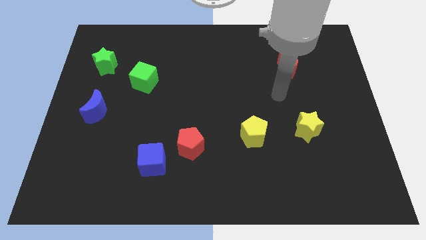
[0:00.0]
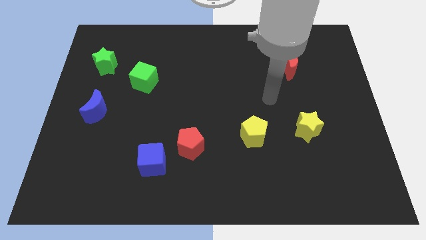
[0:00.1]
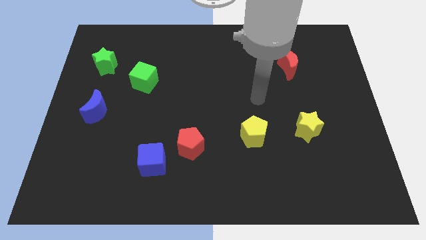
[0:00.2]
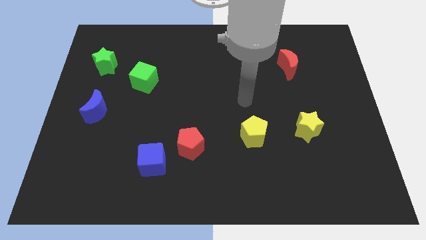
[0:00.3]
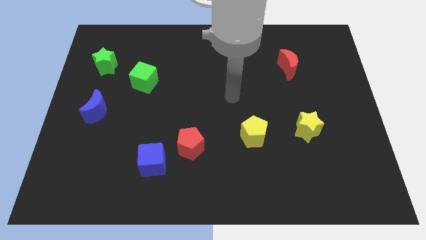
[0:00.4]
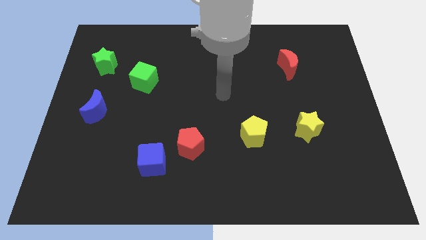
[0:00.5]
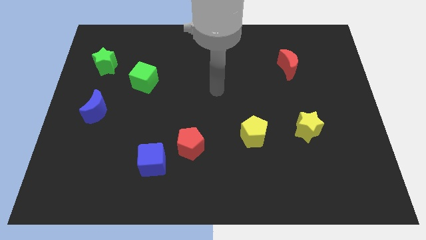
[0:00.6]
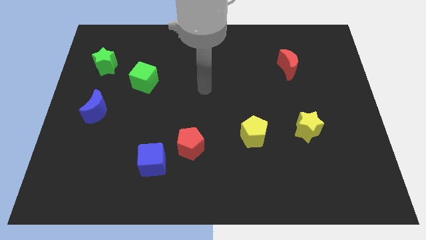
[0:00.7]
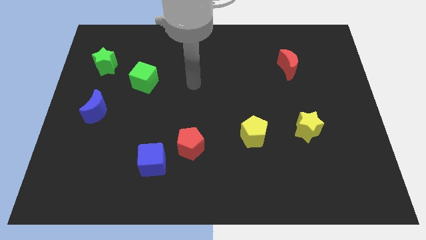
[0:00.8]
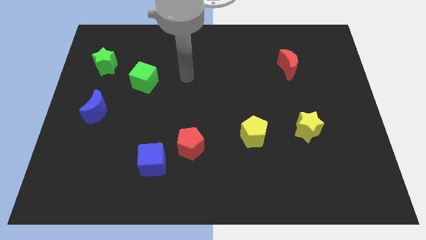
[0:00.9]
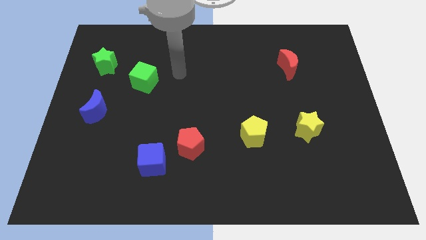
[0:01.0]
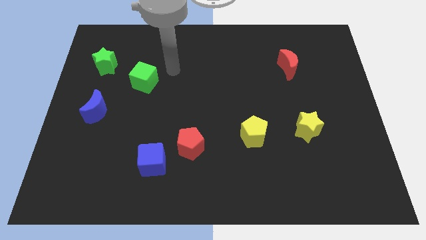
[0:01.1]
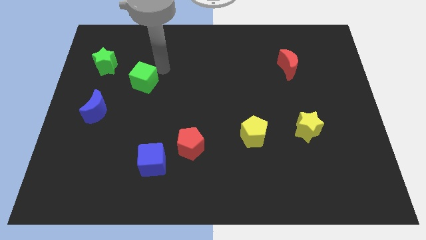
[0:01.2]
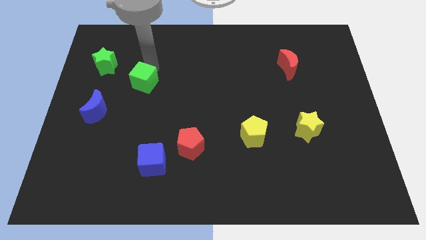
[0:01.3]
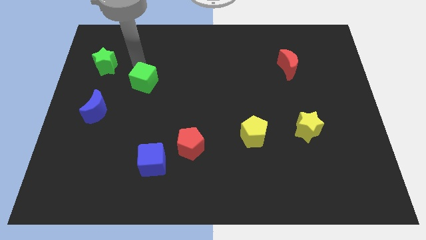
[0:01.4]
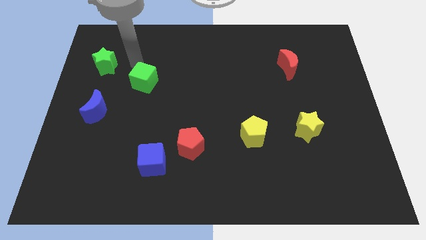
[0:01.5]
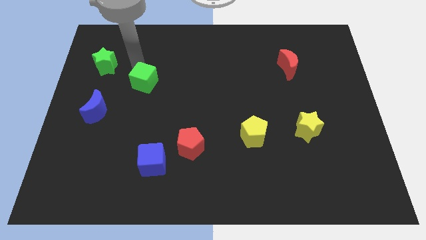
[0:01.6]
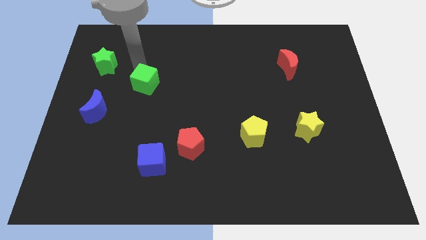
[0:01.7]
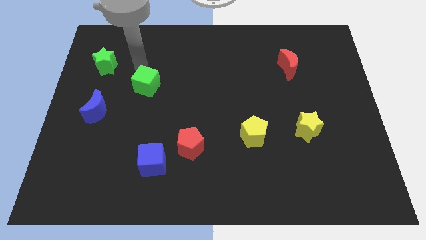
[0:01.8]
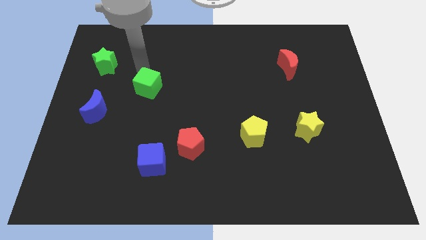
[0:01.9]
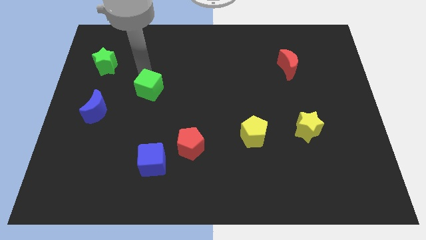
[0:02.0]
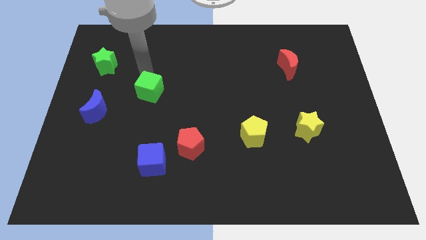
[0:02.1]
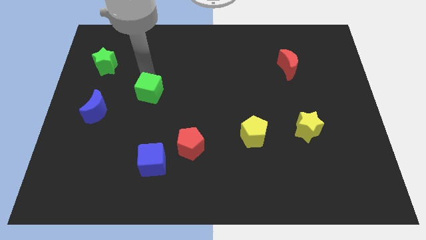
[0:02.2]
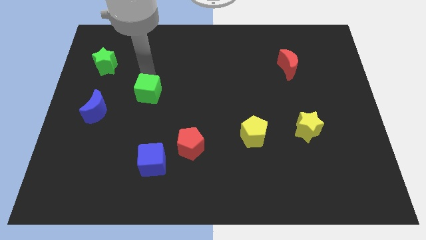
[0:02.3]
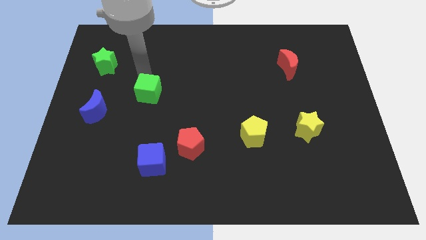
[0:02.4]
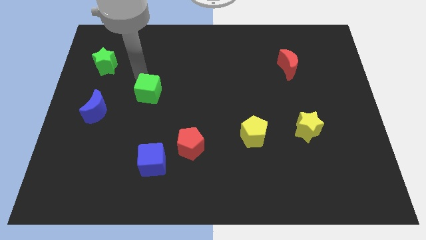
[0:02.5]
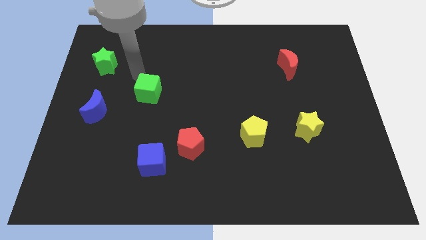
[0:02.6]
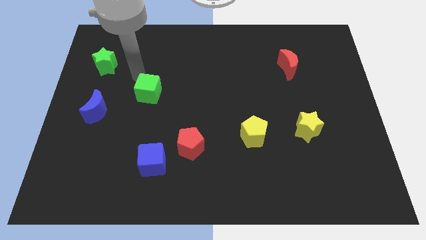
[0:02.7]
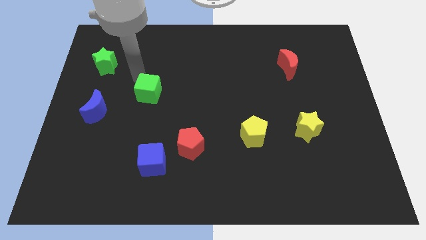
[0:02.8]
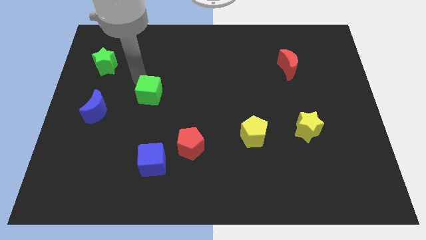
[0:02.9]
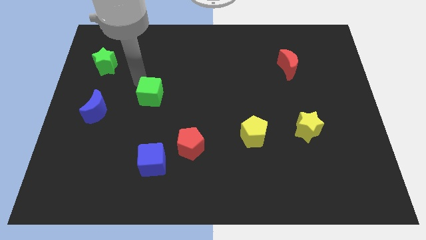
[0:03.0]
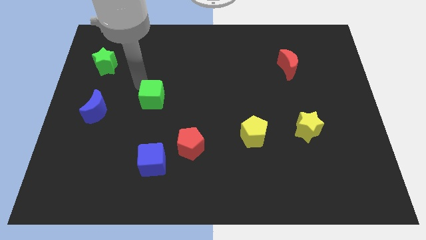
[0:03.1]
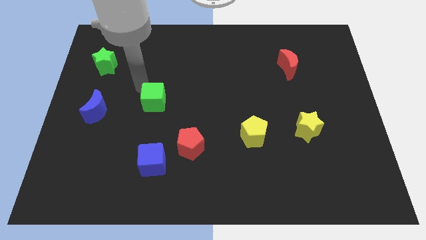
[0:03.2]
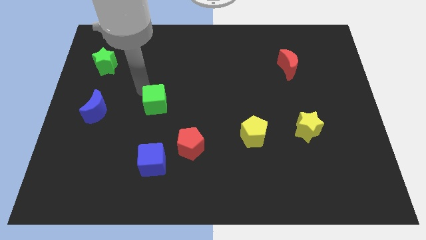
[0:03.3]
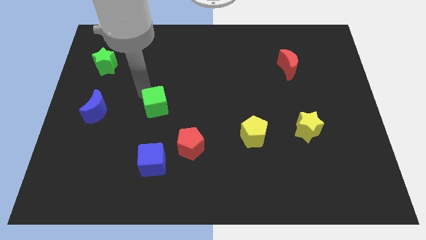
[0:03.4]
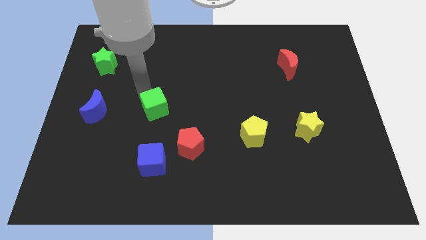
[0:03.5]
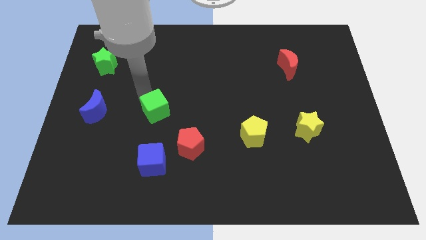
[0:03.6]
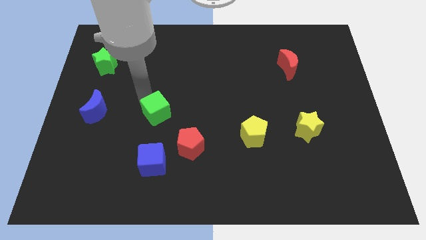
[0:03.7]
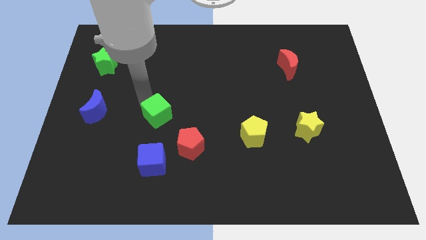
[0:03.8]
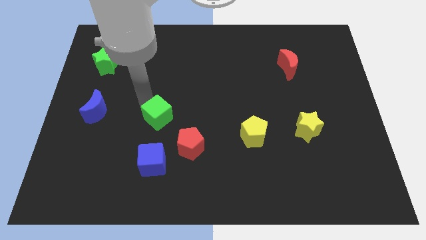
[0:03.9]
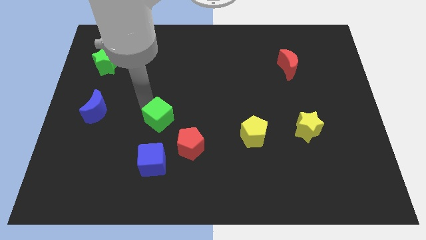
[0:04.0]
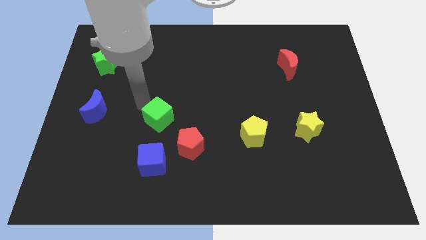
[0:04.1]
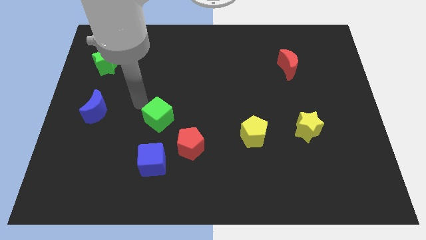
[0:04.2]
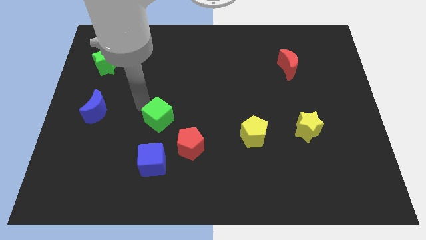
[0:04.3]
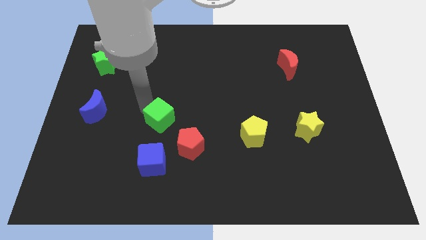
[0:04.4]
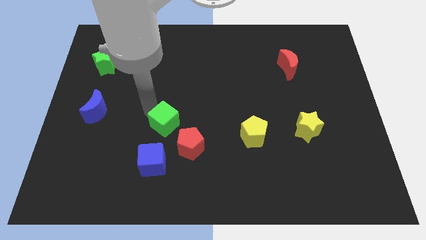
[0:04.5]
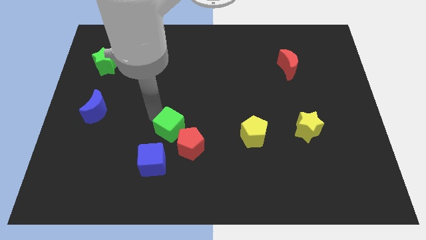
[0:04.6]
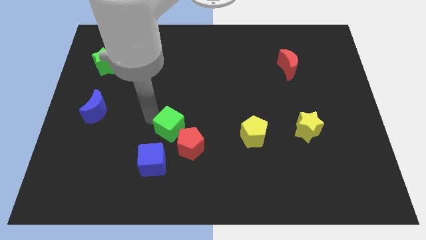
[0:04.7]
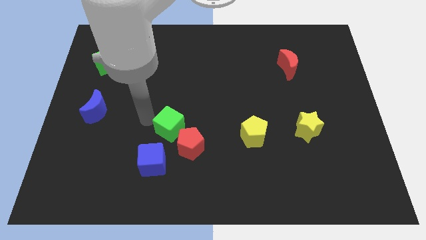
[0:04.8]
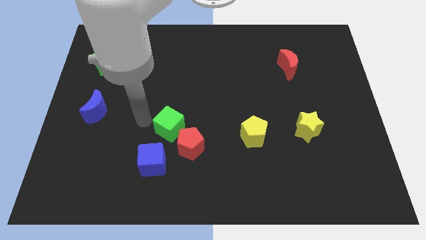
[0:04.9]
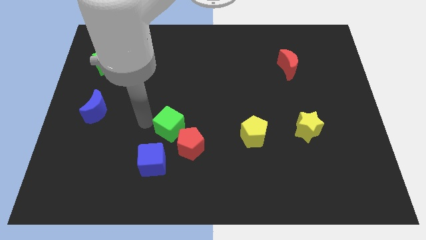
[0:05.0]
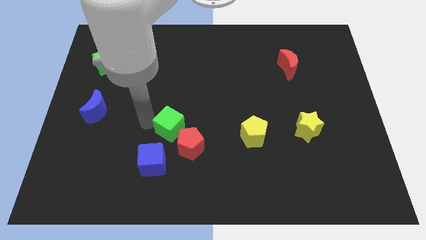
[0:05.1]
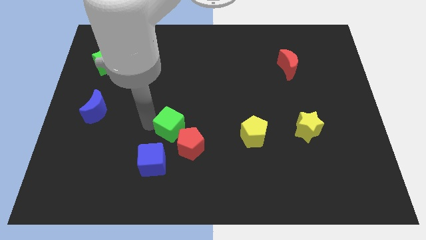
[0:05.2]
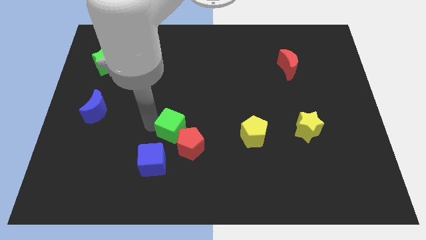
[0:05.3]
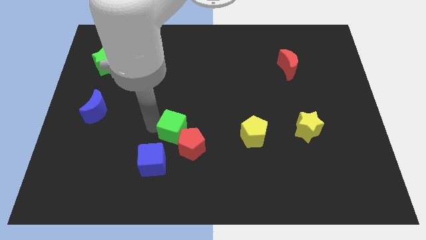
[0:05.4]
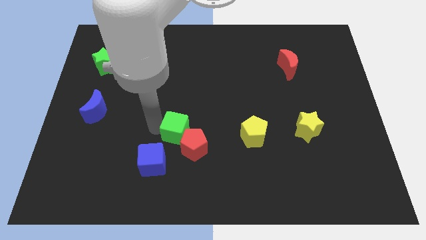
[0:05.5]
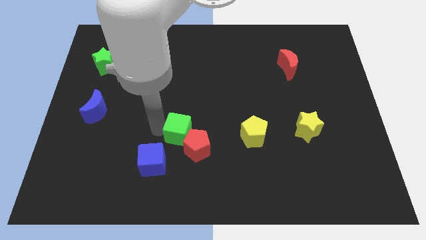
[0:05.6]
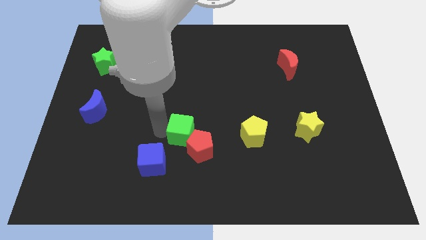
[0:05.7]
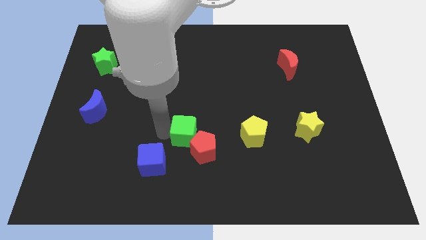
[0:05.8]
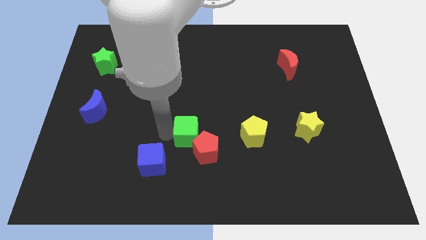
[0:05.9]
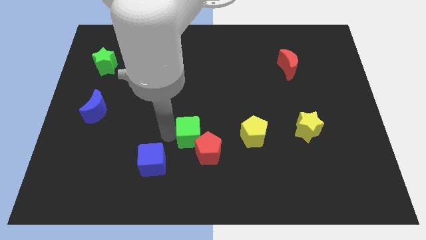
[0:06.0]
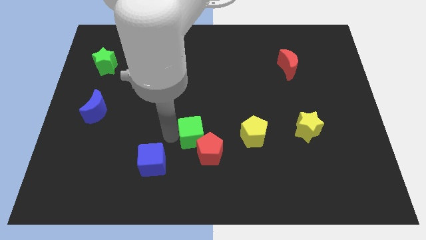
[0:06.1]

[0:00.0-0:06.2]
push the green cube down and to the right diagonally

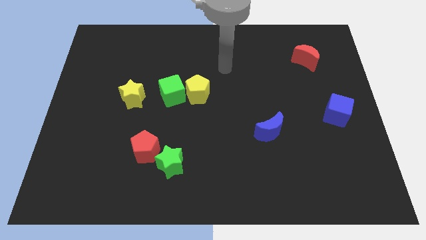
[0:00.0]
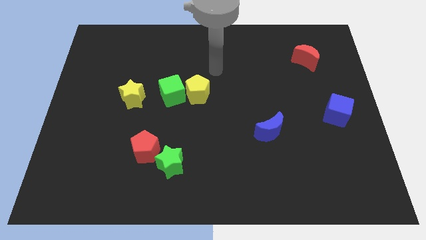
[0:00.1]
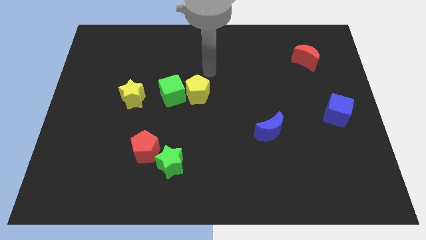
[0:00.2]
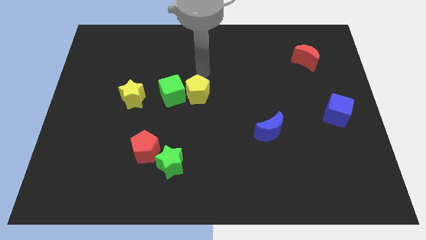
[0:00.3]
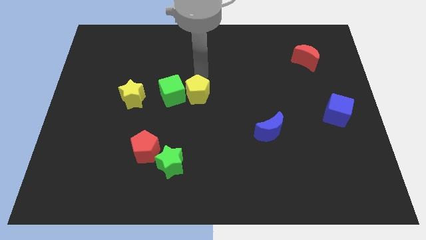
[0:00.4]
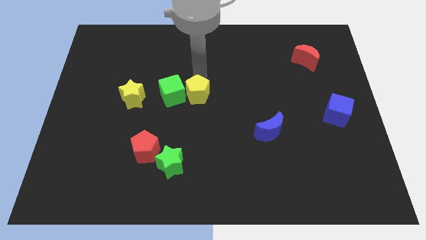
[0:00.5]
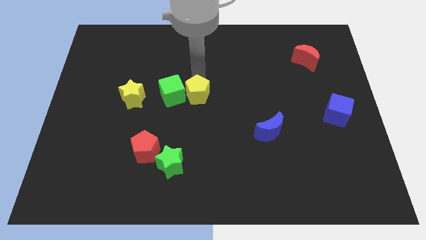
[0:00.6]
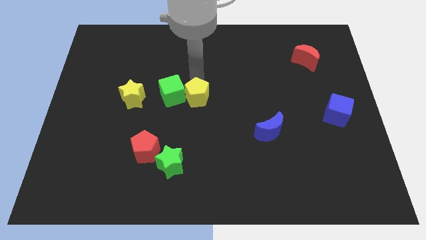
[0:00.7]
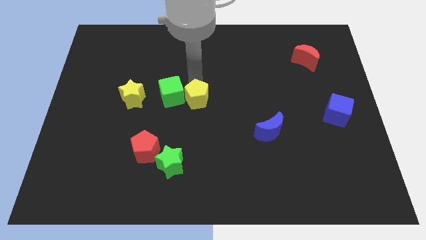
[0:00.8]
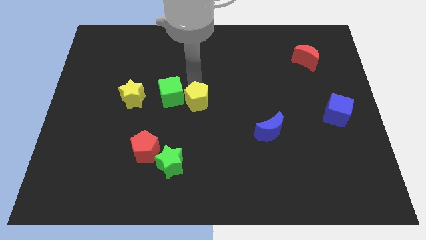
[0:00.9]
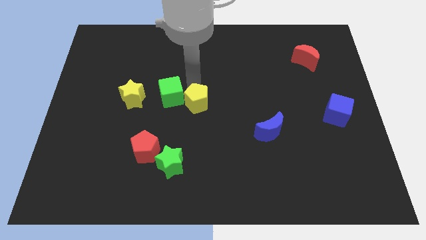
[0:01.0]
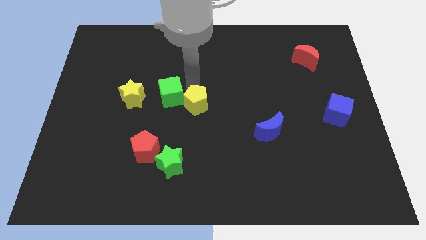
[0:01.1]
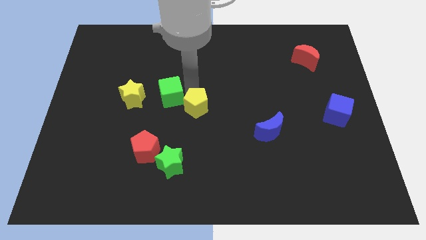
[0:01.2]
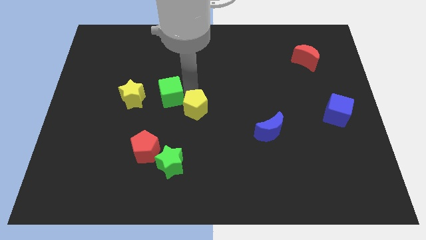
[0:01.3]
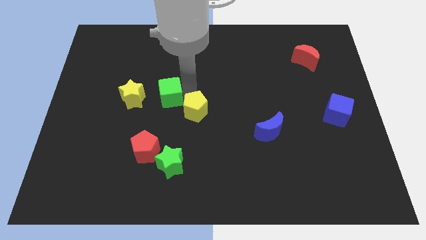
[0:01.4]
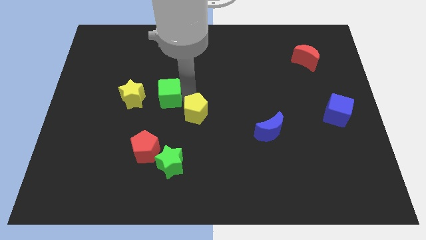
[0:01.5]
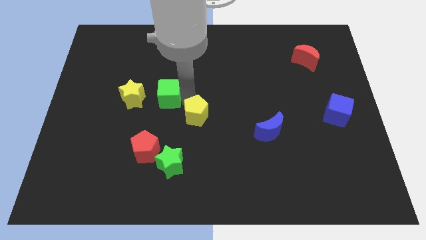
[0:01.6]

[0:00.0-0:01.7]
slightly slide the yellow pentagon downwards

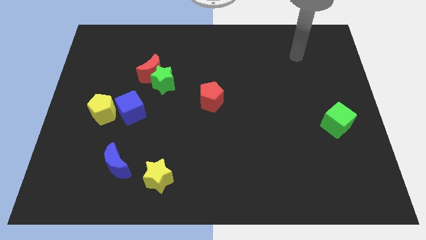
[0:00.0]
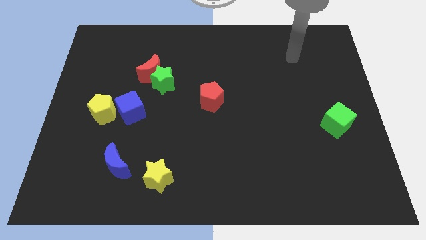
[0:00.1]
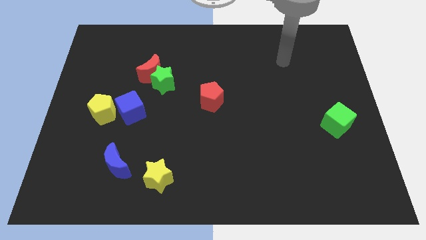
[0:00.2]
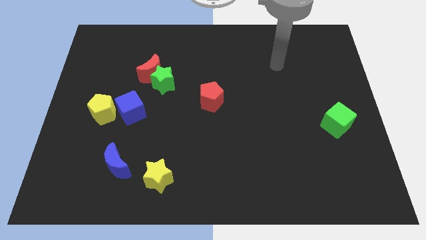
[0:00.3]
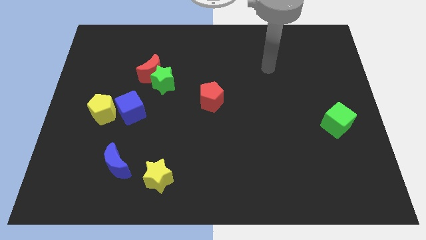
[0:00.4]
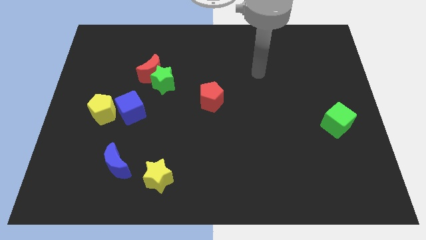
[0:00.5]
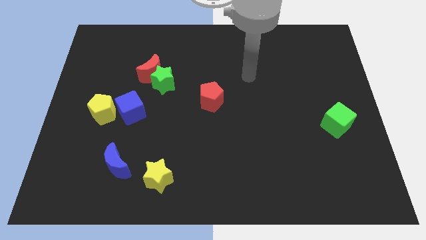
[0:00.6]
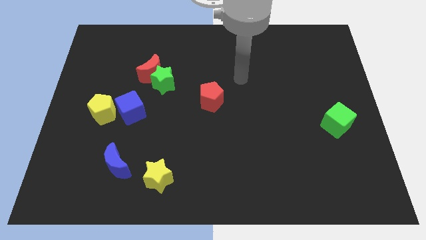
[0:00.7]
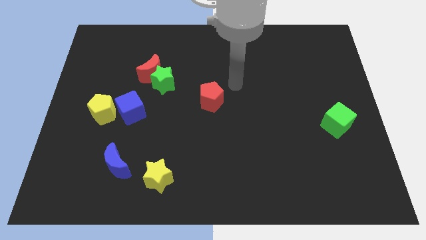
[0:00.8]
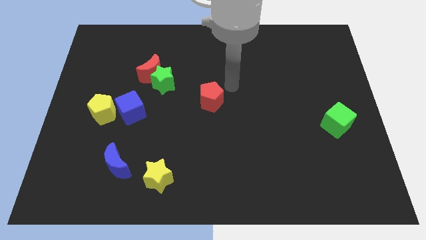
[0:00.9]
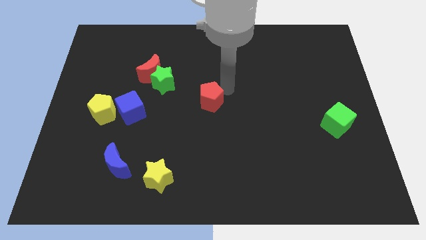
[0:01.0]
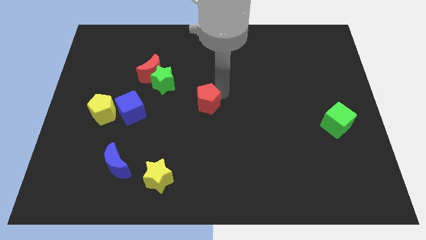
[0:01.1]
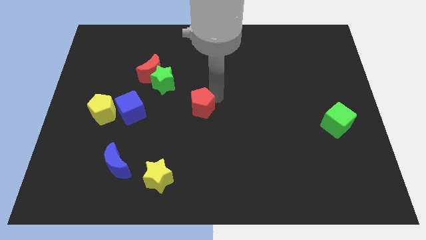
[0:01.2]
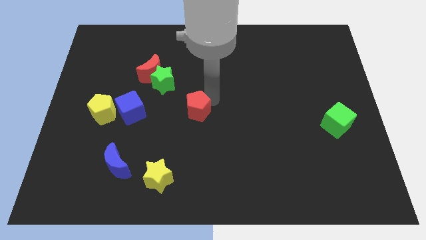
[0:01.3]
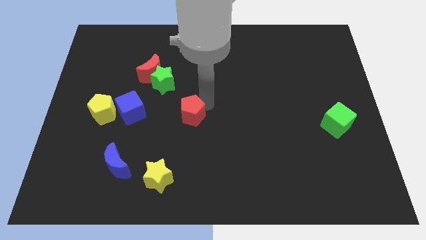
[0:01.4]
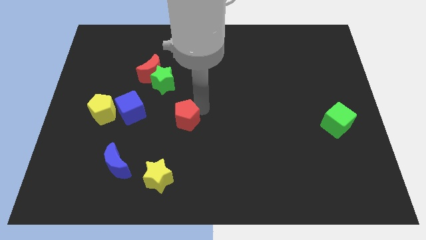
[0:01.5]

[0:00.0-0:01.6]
push the red pentagon down and to the left a little bit
